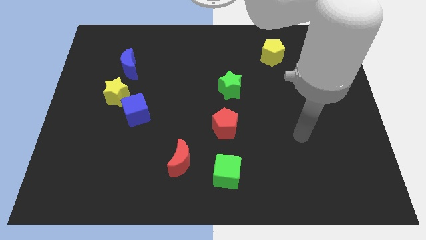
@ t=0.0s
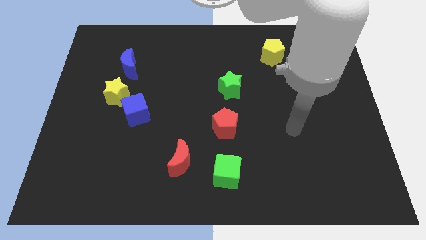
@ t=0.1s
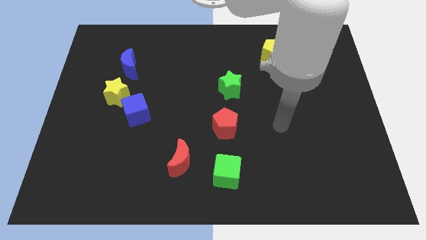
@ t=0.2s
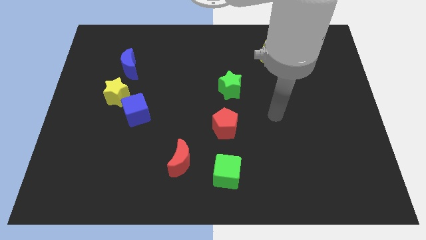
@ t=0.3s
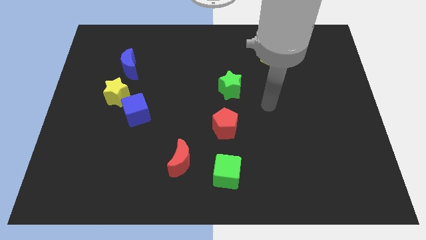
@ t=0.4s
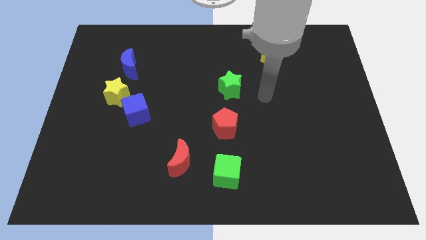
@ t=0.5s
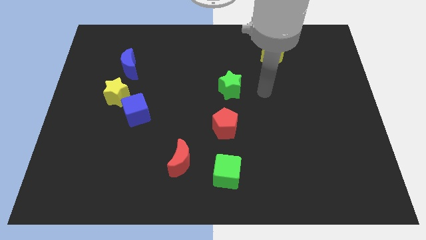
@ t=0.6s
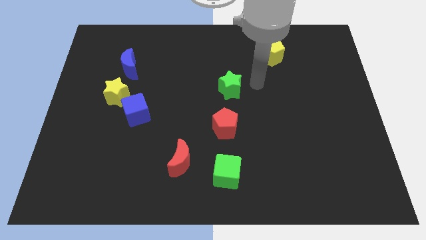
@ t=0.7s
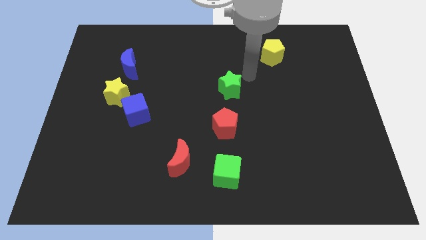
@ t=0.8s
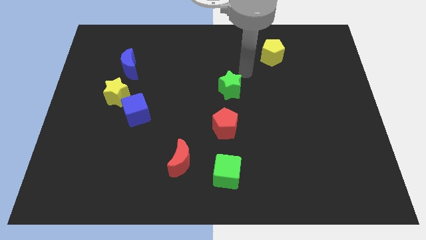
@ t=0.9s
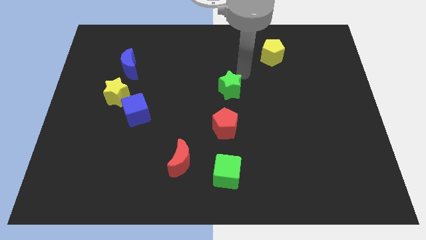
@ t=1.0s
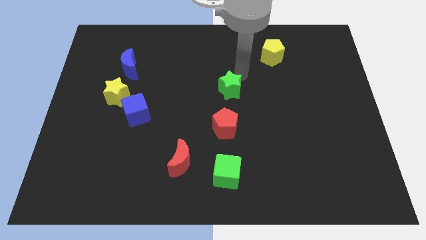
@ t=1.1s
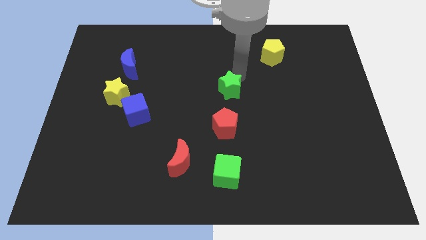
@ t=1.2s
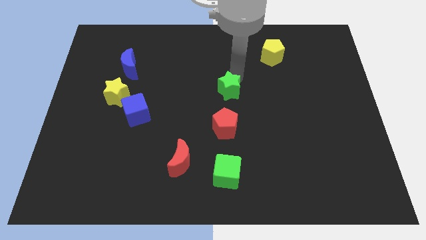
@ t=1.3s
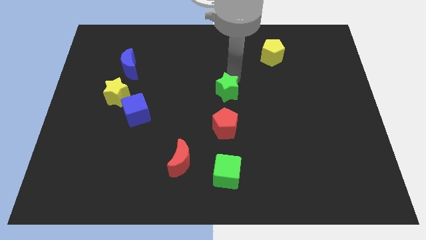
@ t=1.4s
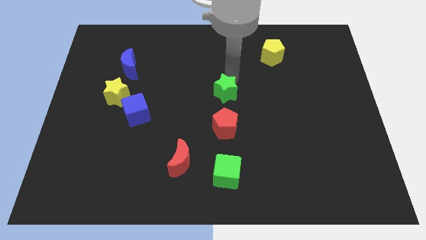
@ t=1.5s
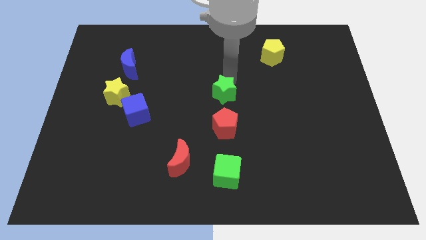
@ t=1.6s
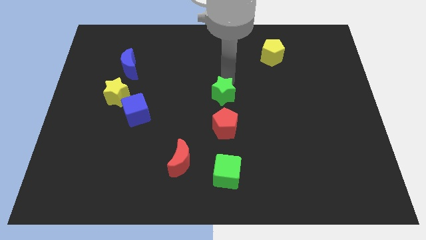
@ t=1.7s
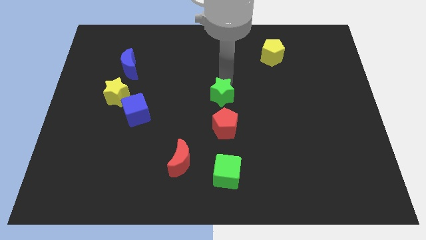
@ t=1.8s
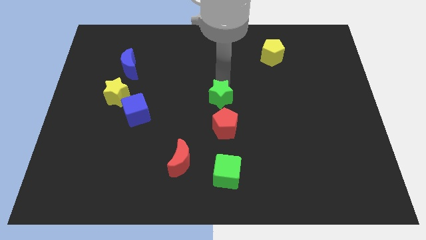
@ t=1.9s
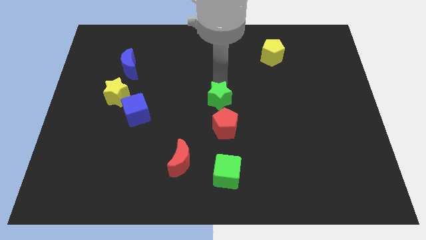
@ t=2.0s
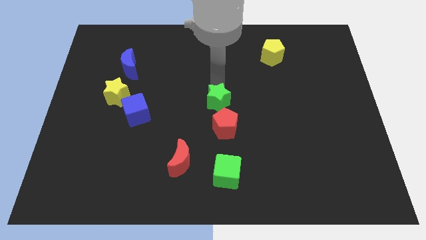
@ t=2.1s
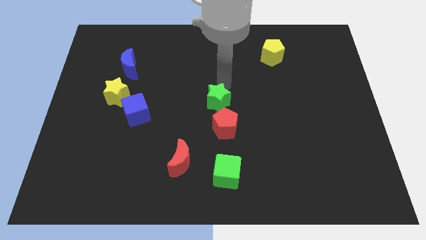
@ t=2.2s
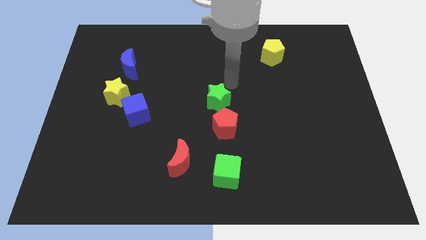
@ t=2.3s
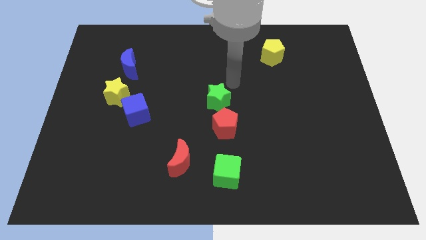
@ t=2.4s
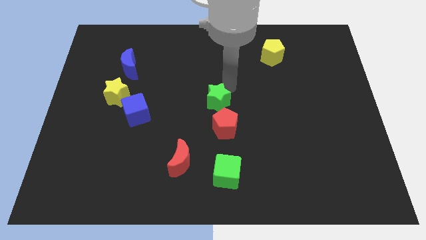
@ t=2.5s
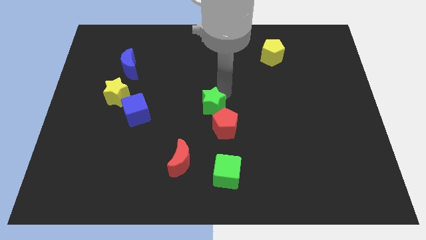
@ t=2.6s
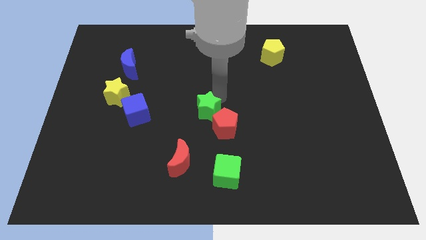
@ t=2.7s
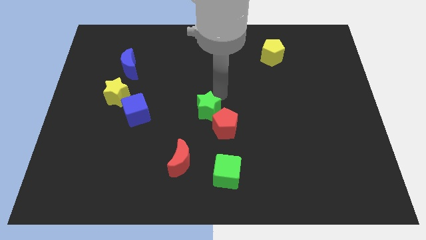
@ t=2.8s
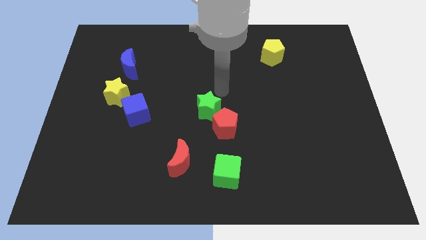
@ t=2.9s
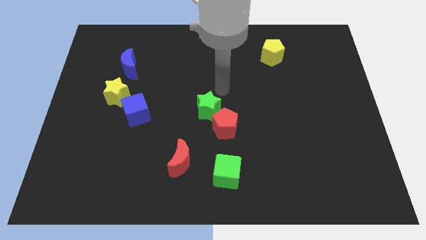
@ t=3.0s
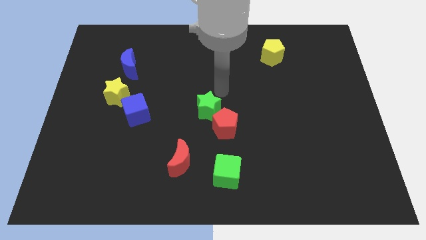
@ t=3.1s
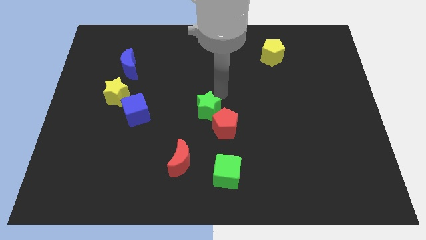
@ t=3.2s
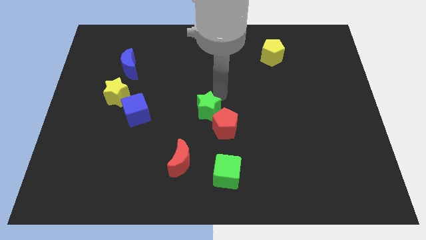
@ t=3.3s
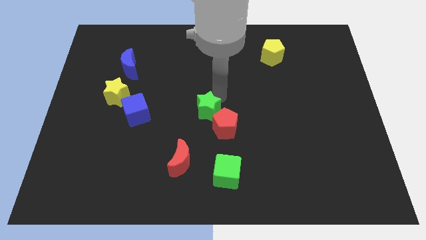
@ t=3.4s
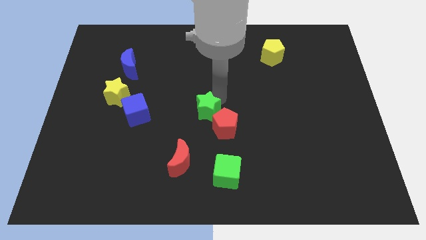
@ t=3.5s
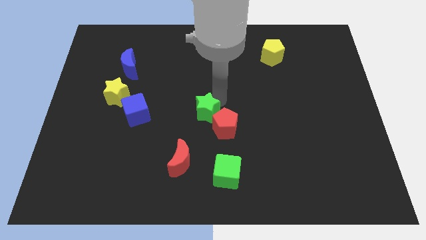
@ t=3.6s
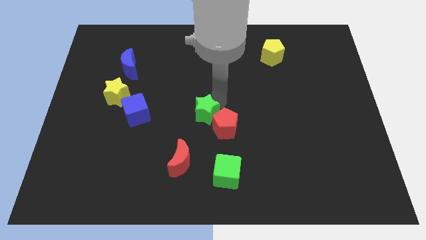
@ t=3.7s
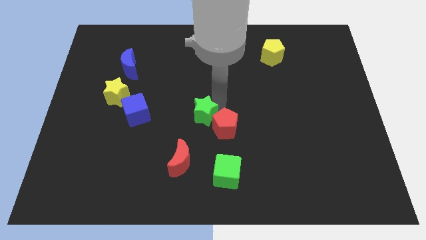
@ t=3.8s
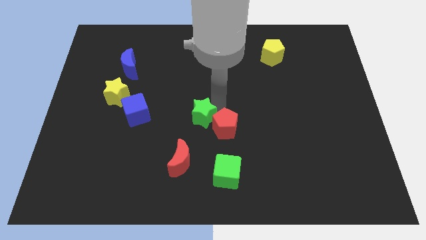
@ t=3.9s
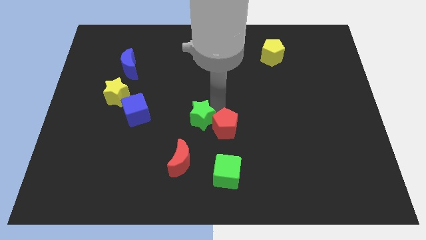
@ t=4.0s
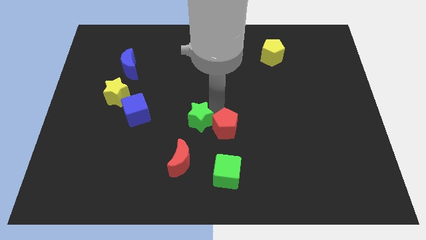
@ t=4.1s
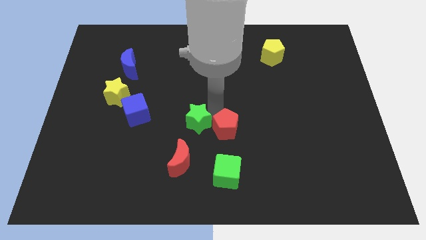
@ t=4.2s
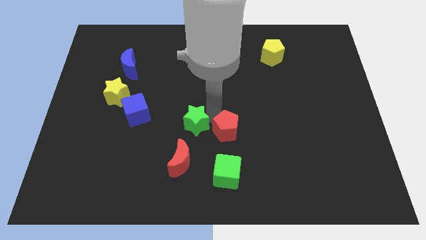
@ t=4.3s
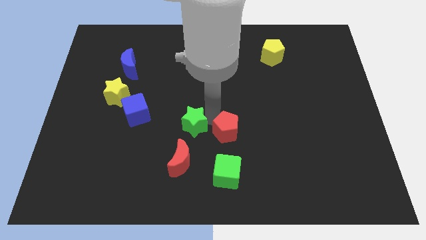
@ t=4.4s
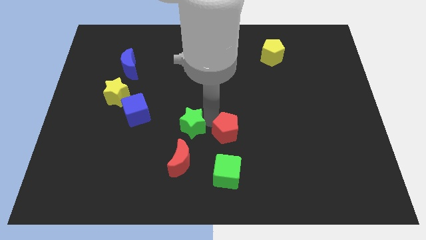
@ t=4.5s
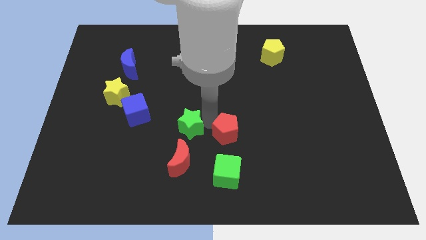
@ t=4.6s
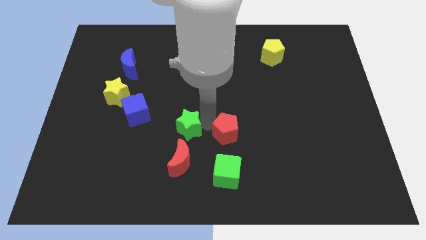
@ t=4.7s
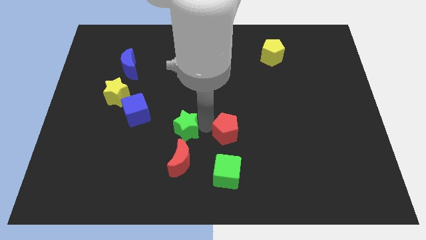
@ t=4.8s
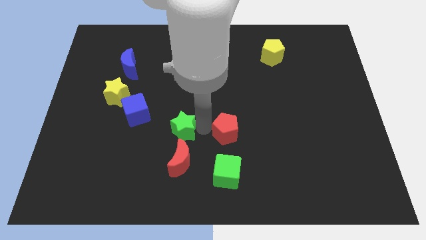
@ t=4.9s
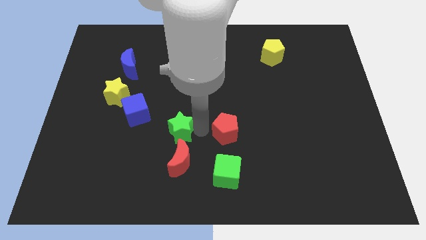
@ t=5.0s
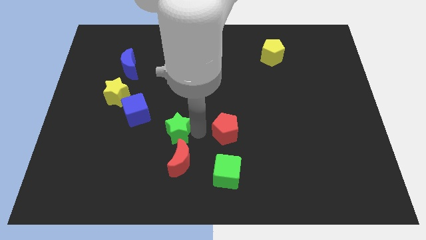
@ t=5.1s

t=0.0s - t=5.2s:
move the green star to the top left side of the red moon

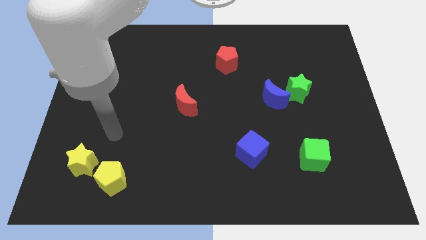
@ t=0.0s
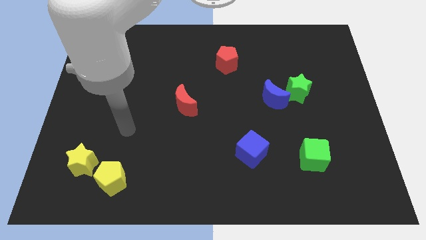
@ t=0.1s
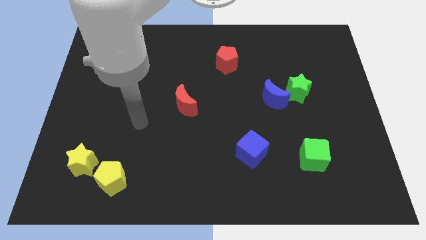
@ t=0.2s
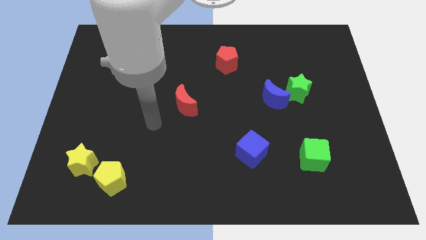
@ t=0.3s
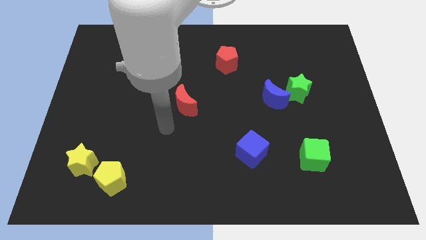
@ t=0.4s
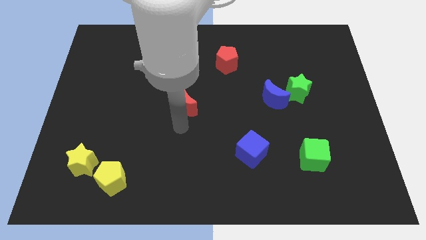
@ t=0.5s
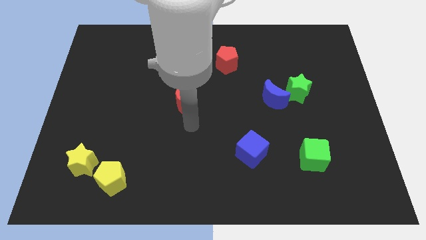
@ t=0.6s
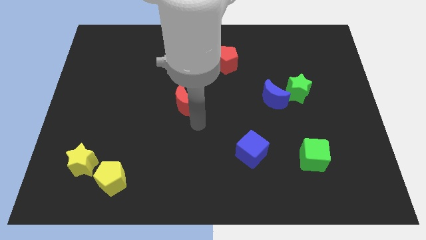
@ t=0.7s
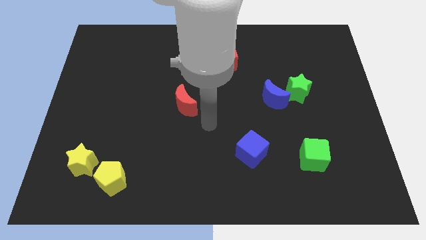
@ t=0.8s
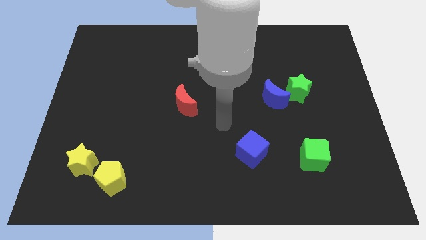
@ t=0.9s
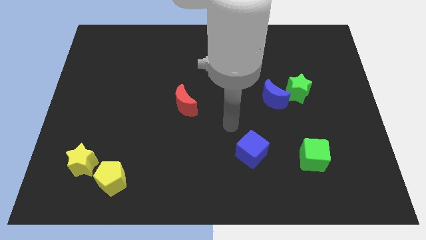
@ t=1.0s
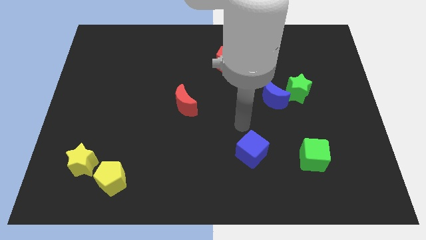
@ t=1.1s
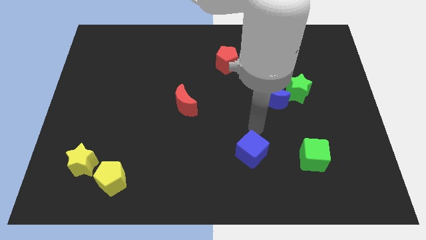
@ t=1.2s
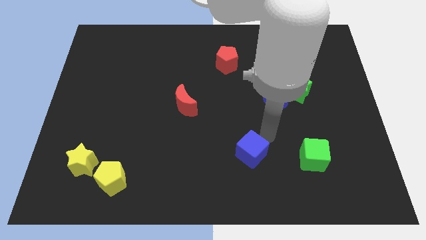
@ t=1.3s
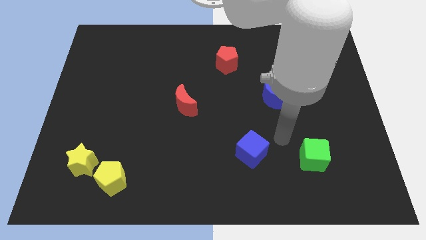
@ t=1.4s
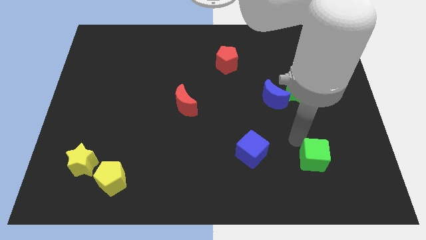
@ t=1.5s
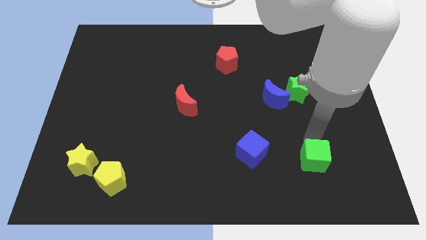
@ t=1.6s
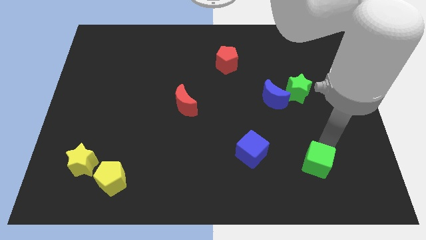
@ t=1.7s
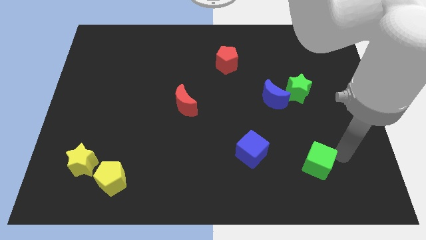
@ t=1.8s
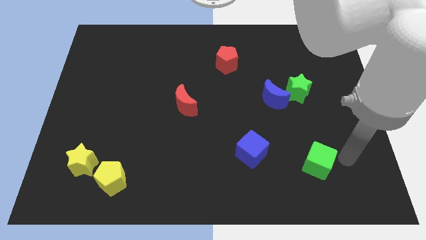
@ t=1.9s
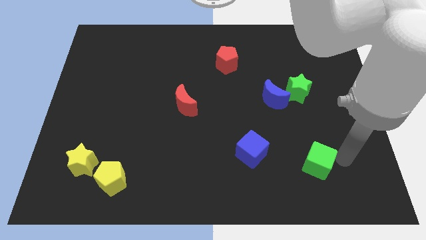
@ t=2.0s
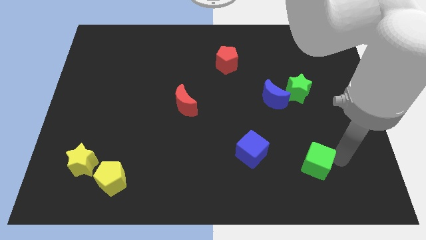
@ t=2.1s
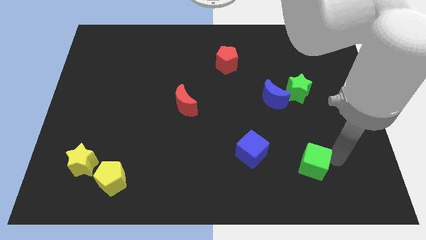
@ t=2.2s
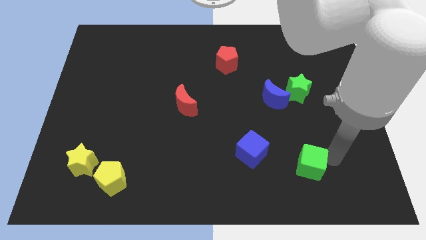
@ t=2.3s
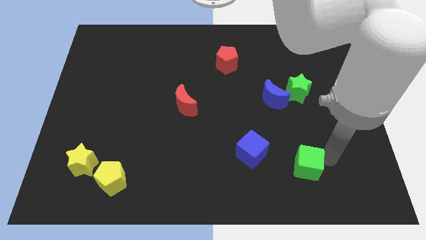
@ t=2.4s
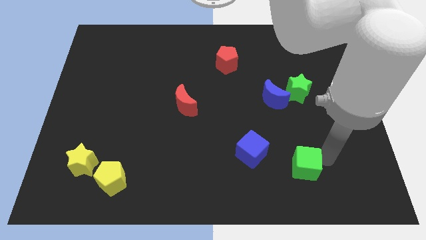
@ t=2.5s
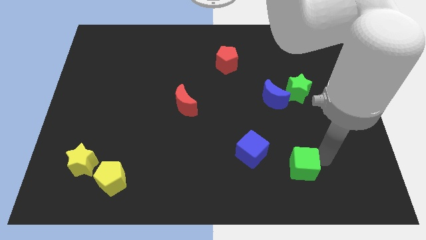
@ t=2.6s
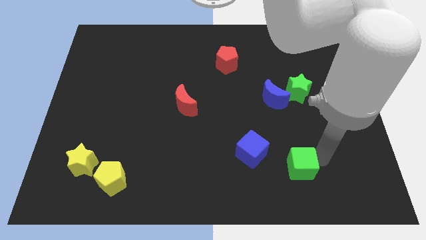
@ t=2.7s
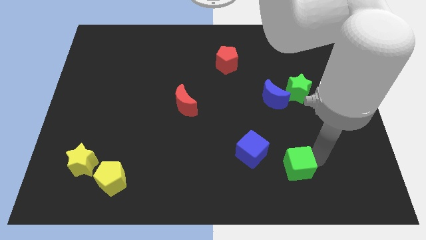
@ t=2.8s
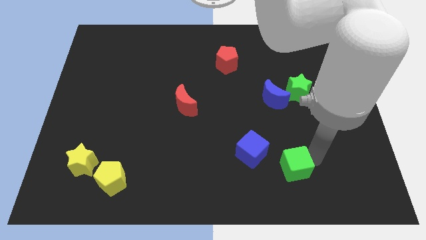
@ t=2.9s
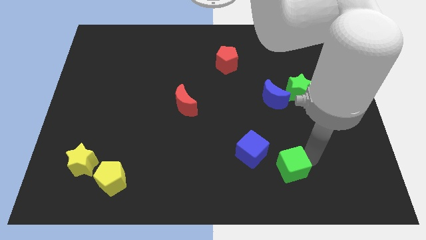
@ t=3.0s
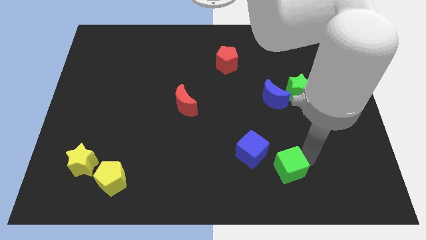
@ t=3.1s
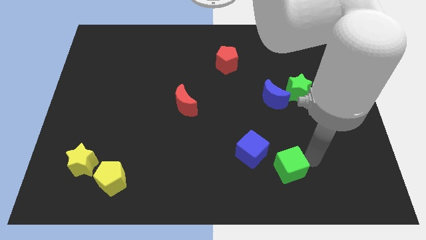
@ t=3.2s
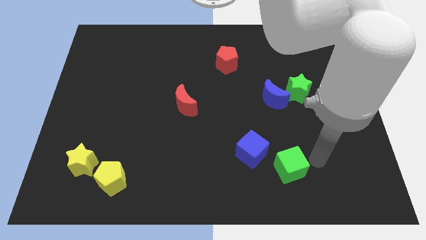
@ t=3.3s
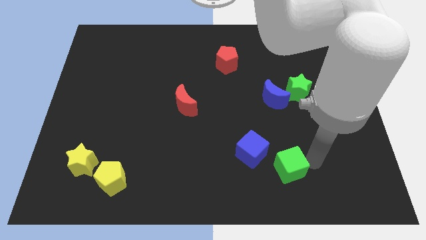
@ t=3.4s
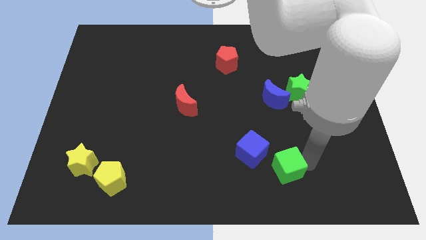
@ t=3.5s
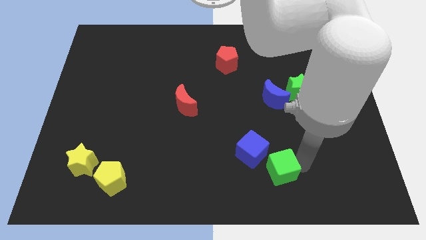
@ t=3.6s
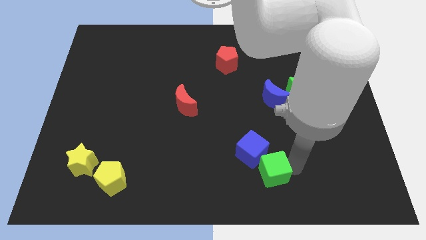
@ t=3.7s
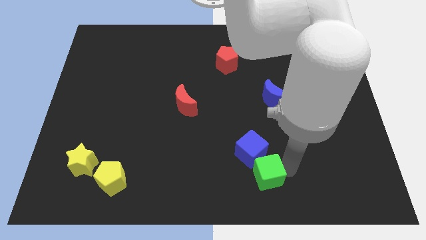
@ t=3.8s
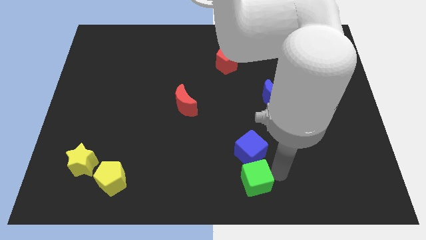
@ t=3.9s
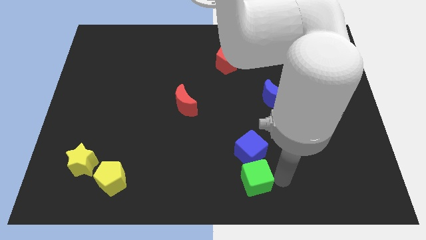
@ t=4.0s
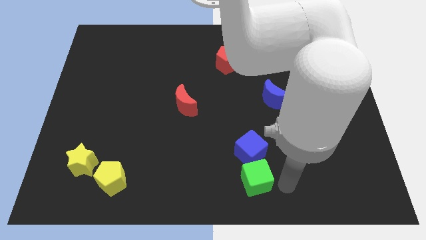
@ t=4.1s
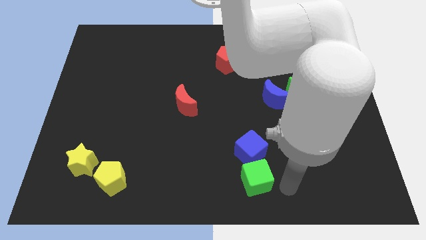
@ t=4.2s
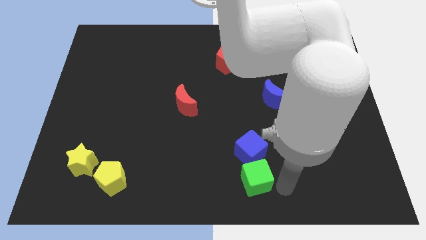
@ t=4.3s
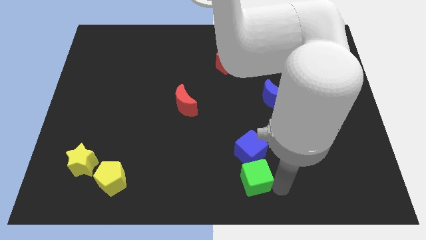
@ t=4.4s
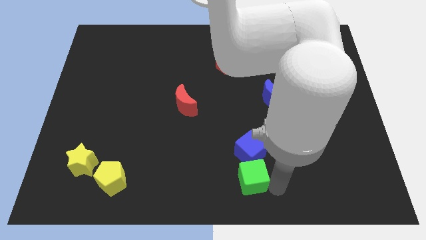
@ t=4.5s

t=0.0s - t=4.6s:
move the green cube diagonally down and to the left of the blue cube
